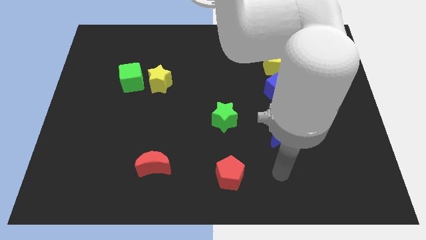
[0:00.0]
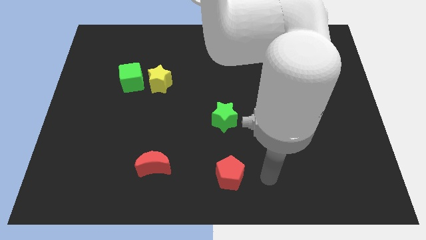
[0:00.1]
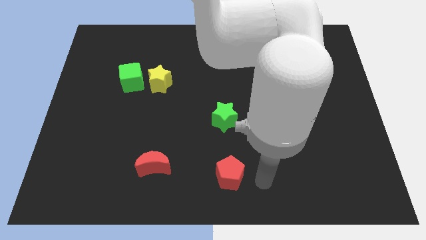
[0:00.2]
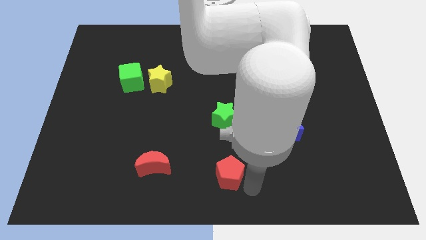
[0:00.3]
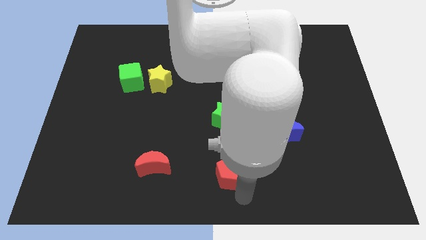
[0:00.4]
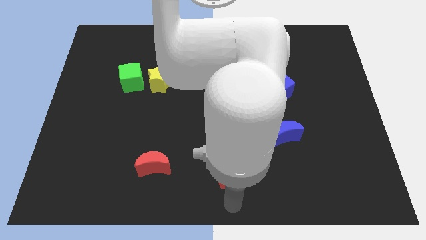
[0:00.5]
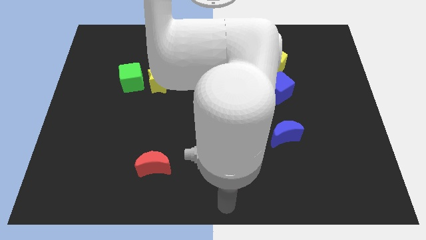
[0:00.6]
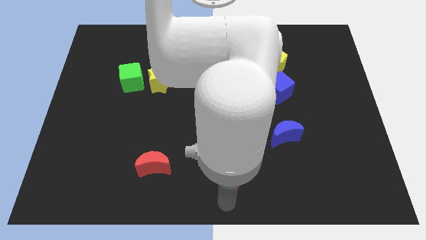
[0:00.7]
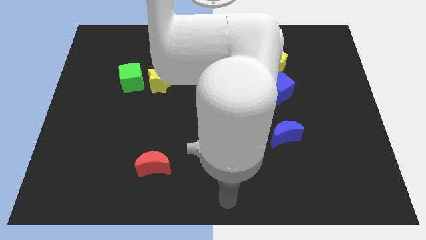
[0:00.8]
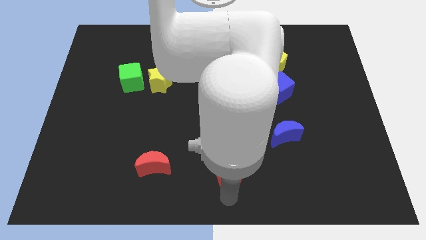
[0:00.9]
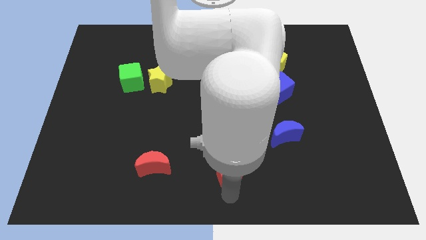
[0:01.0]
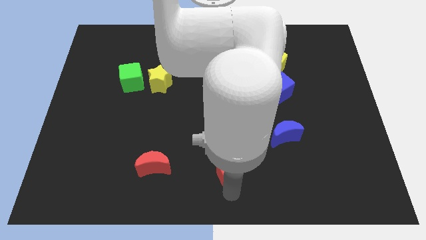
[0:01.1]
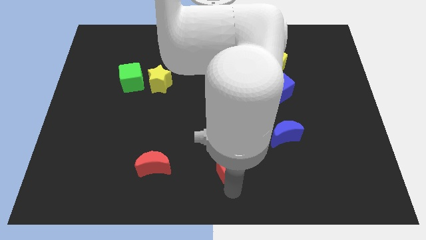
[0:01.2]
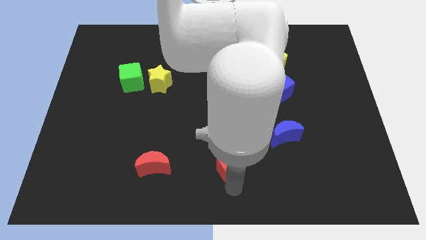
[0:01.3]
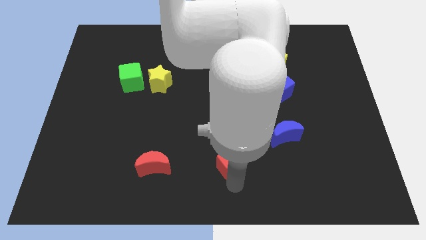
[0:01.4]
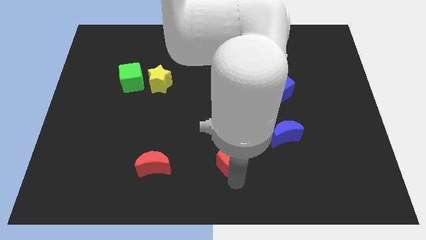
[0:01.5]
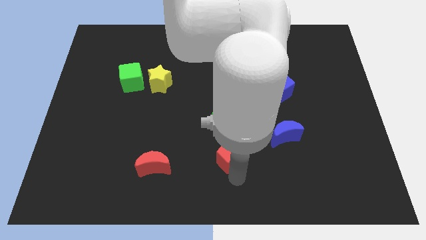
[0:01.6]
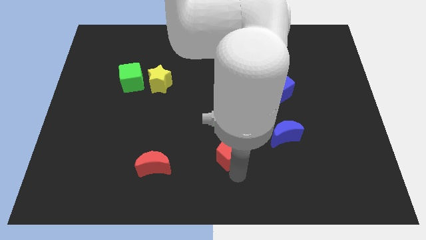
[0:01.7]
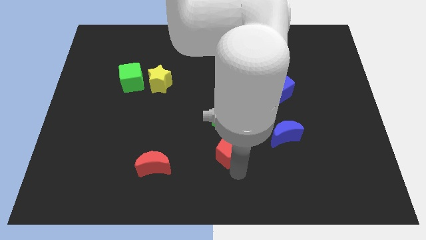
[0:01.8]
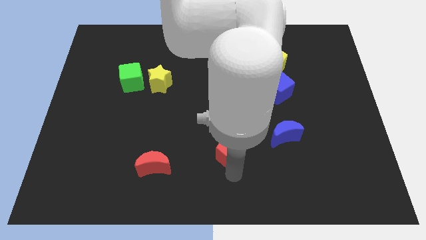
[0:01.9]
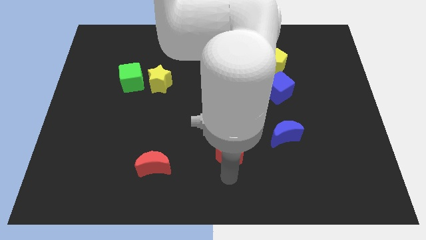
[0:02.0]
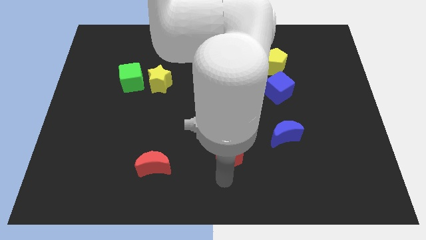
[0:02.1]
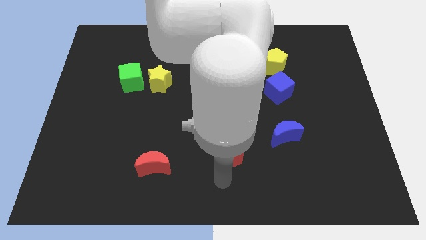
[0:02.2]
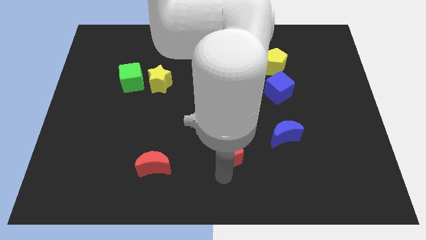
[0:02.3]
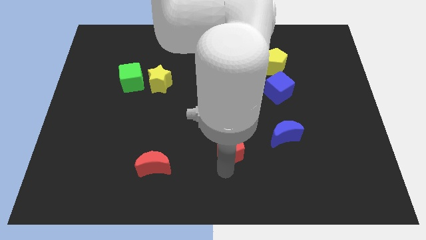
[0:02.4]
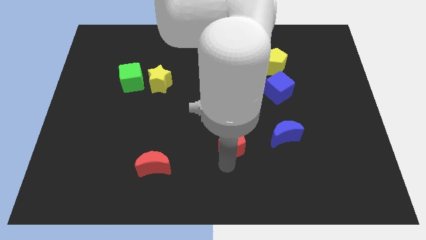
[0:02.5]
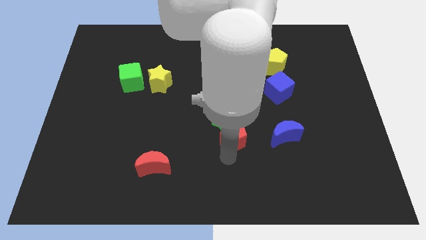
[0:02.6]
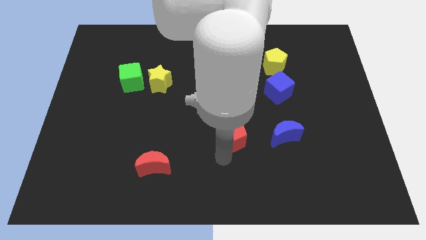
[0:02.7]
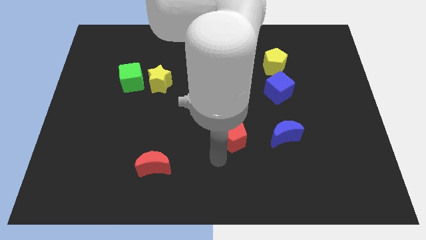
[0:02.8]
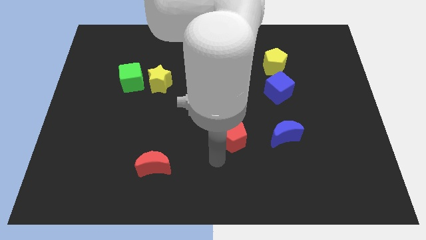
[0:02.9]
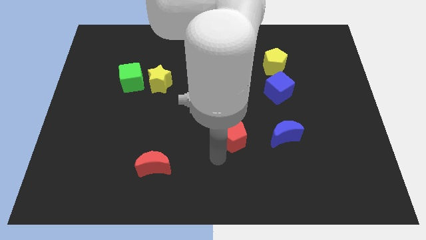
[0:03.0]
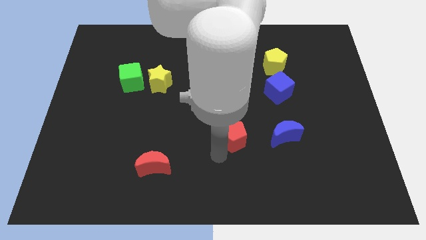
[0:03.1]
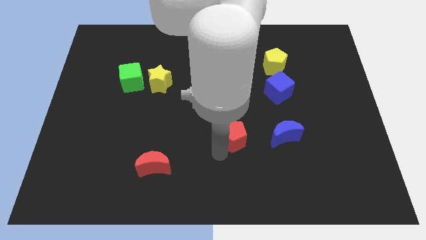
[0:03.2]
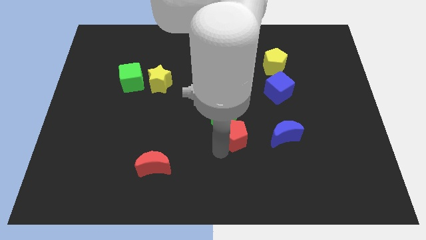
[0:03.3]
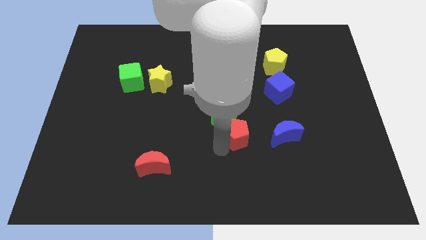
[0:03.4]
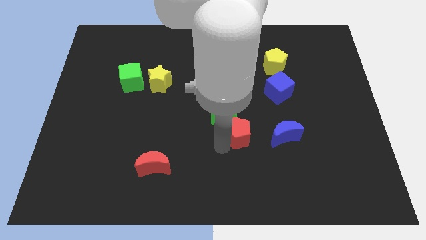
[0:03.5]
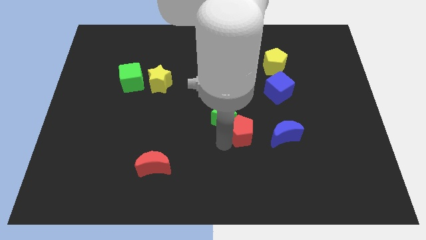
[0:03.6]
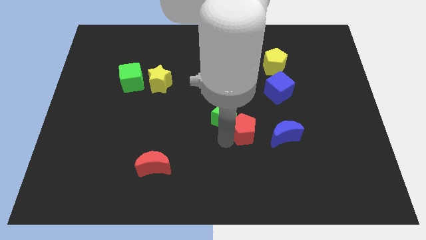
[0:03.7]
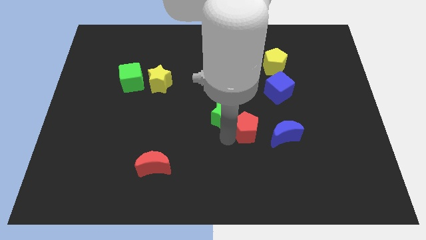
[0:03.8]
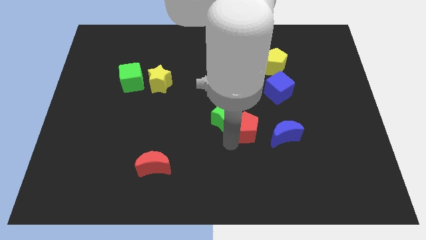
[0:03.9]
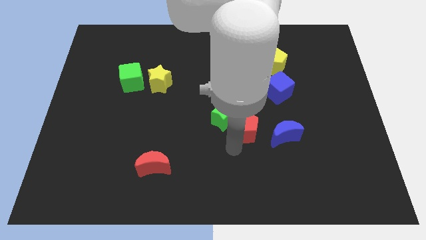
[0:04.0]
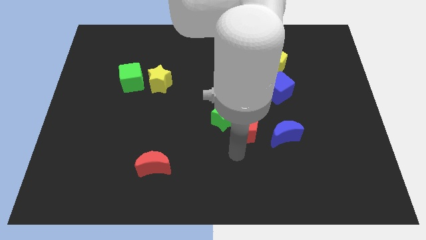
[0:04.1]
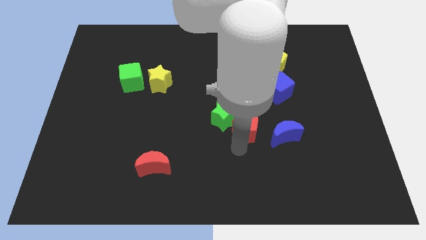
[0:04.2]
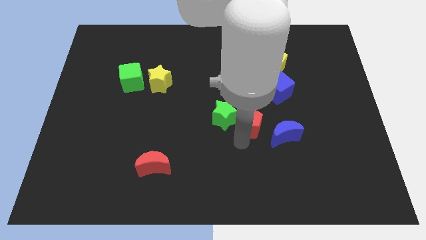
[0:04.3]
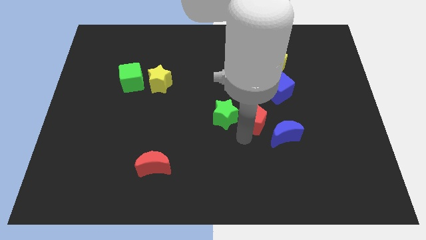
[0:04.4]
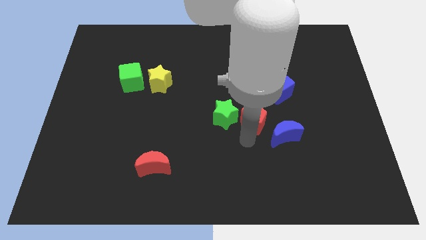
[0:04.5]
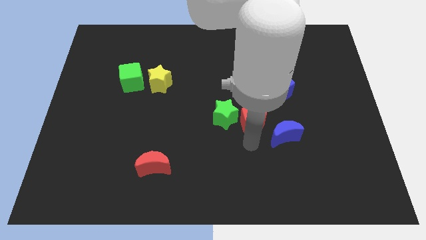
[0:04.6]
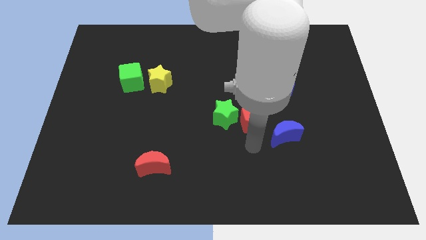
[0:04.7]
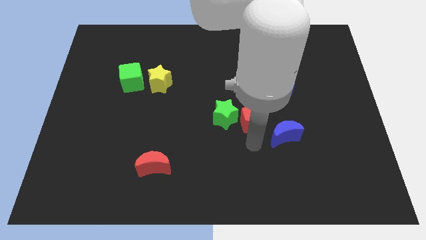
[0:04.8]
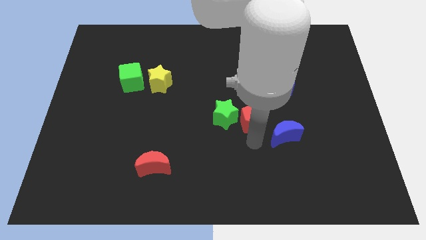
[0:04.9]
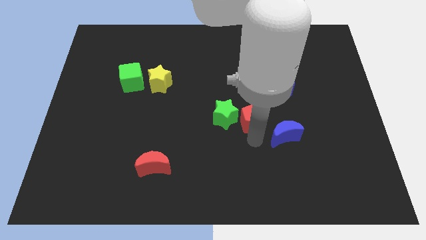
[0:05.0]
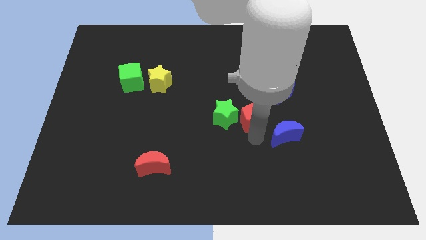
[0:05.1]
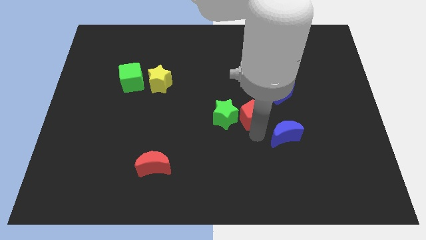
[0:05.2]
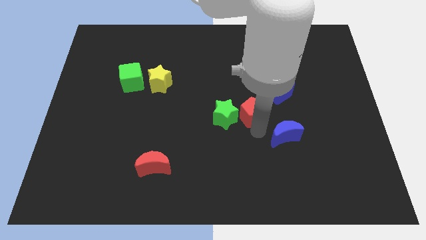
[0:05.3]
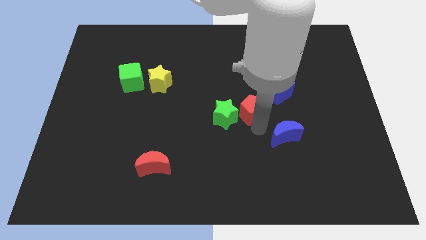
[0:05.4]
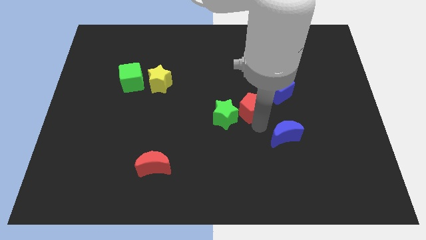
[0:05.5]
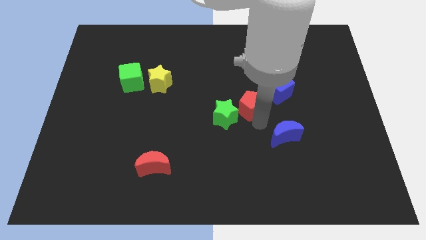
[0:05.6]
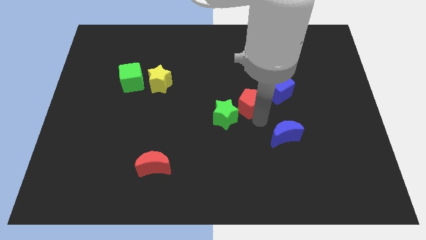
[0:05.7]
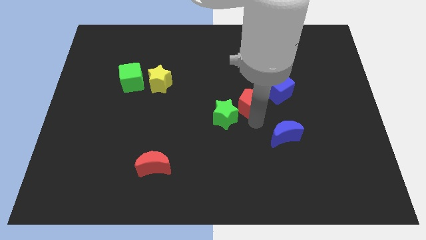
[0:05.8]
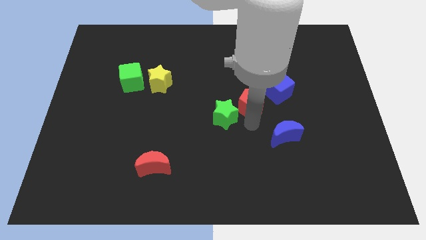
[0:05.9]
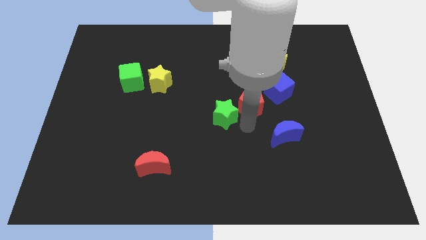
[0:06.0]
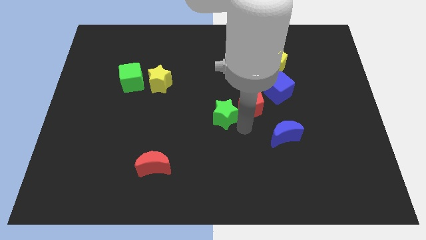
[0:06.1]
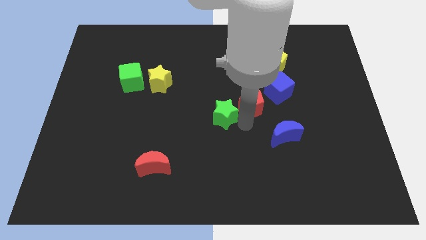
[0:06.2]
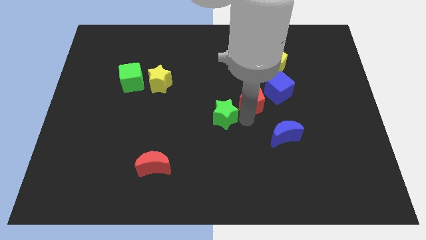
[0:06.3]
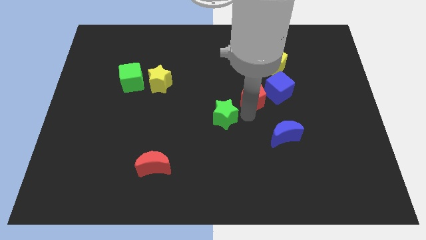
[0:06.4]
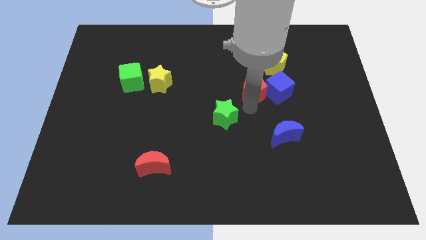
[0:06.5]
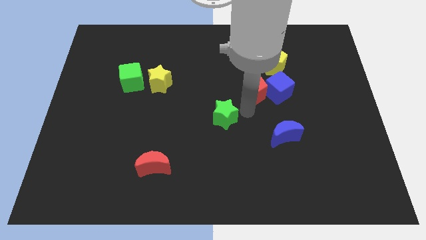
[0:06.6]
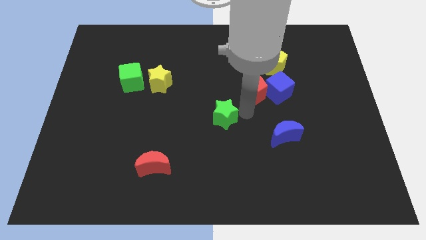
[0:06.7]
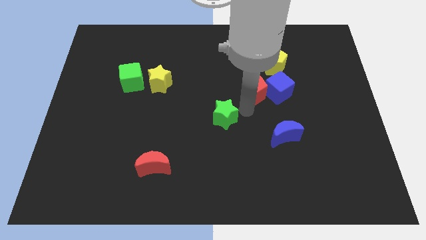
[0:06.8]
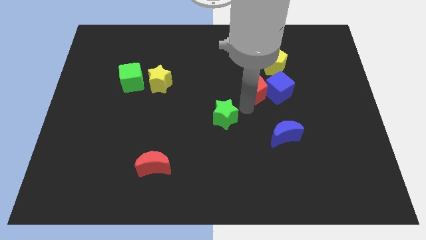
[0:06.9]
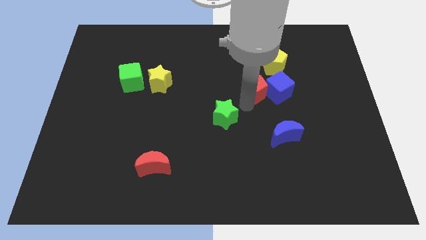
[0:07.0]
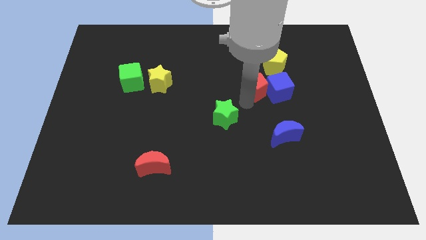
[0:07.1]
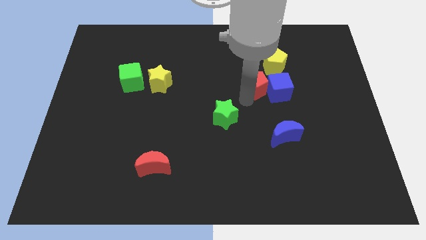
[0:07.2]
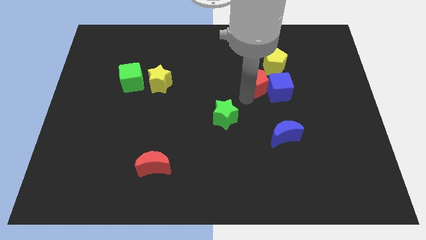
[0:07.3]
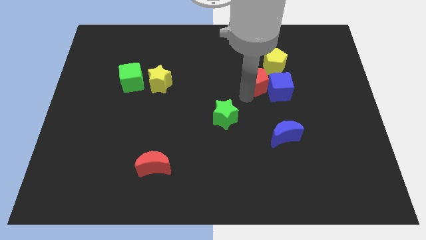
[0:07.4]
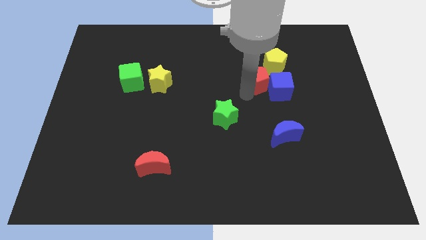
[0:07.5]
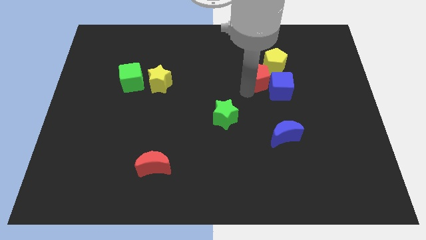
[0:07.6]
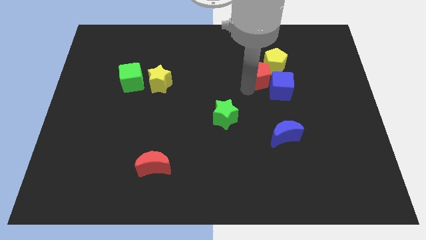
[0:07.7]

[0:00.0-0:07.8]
push the red pentagon next to the yellow pentagon
